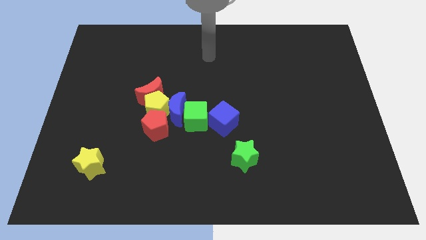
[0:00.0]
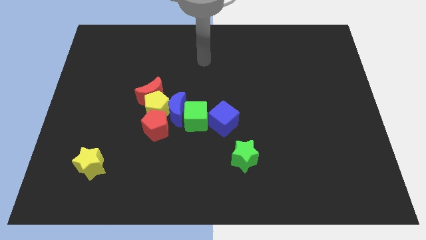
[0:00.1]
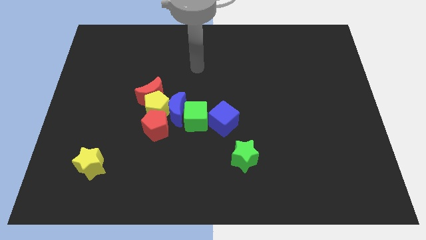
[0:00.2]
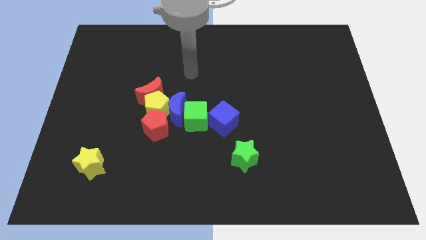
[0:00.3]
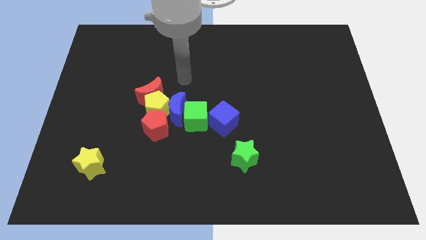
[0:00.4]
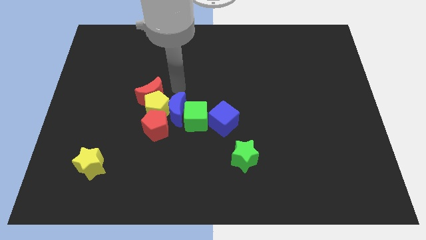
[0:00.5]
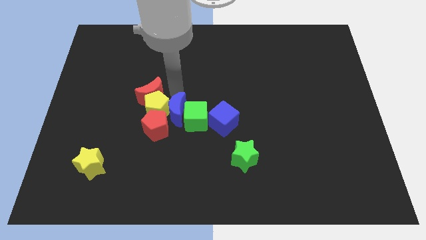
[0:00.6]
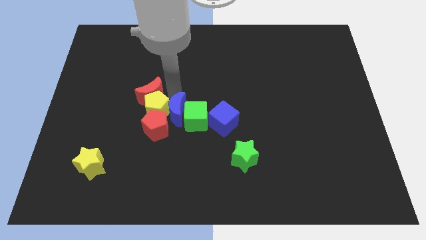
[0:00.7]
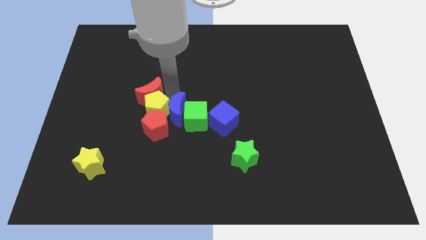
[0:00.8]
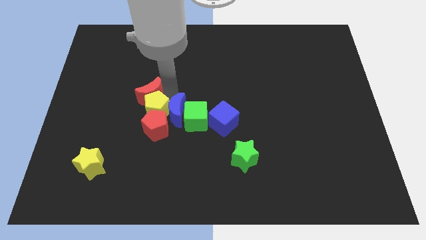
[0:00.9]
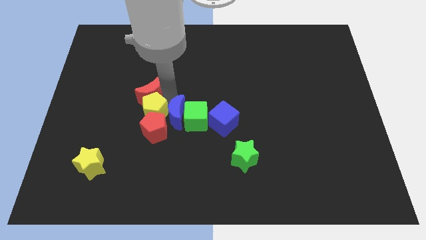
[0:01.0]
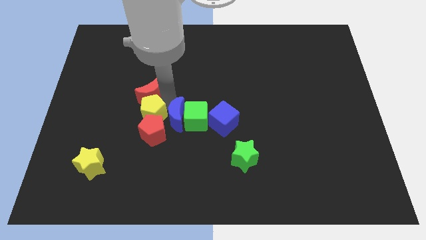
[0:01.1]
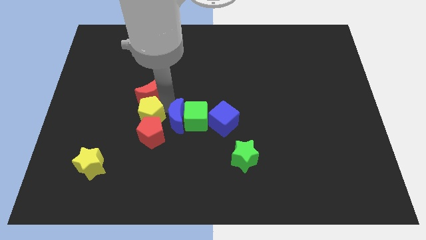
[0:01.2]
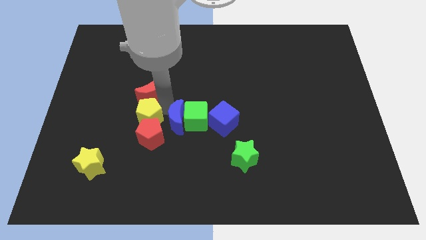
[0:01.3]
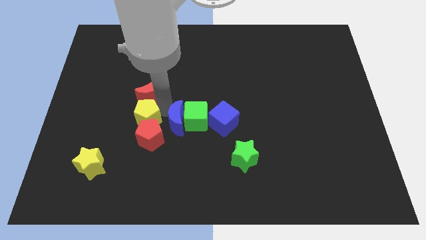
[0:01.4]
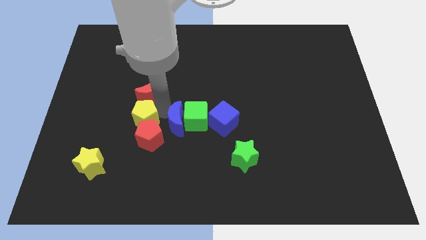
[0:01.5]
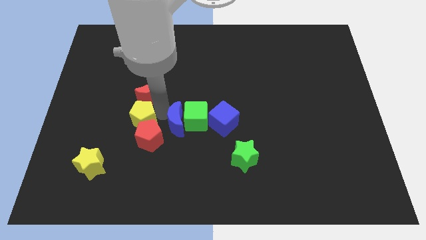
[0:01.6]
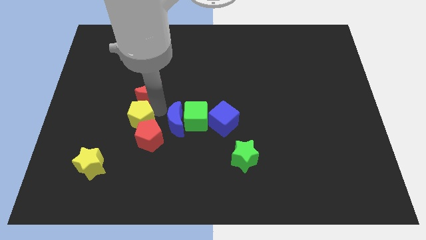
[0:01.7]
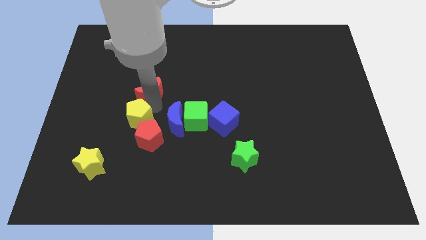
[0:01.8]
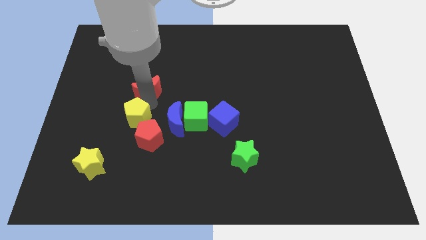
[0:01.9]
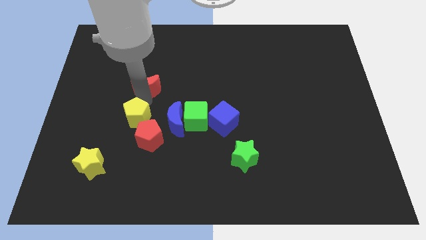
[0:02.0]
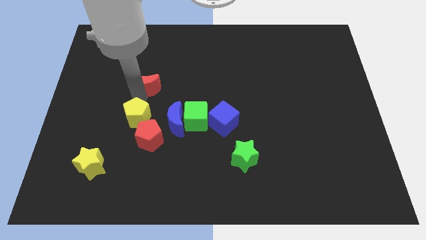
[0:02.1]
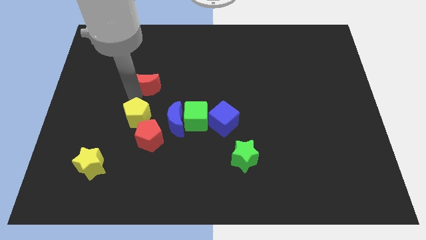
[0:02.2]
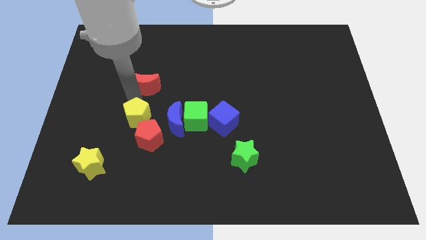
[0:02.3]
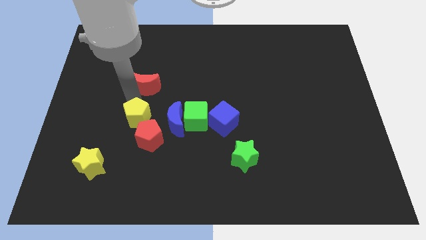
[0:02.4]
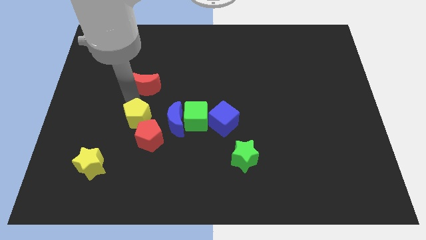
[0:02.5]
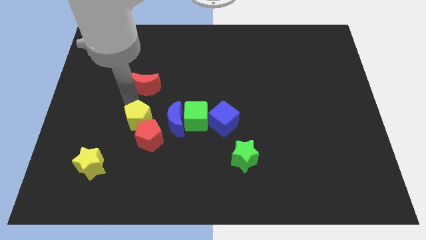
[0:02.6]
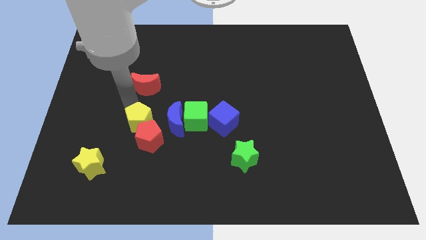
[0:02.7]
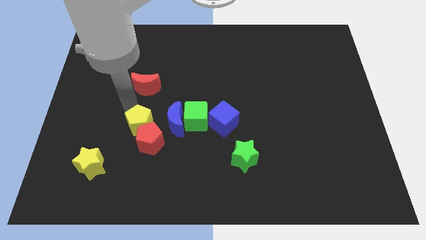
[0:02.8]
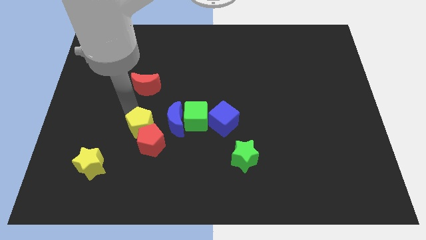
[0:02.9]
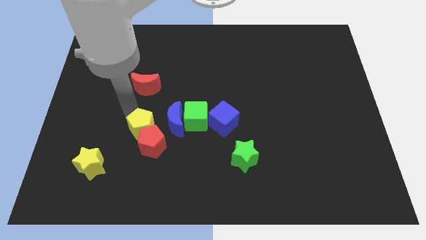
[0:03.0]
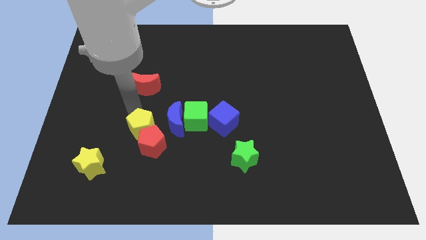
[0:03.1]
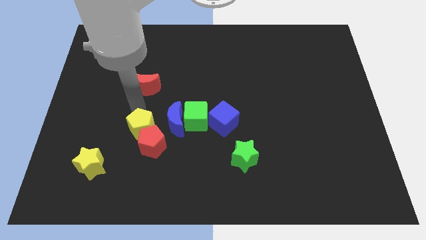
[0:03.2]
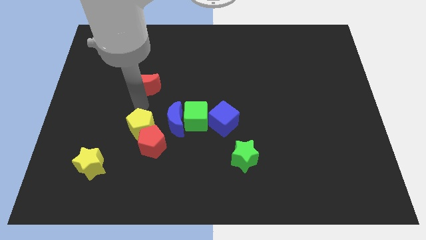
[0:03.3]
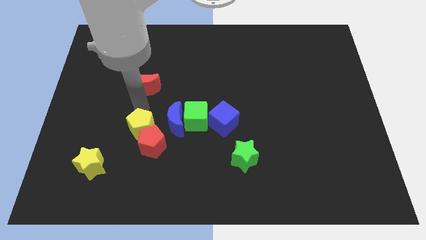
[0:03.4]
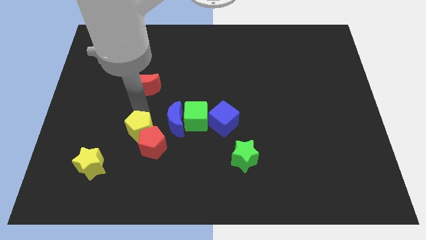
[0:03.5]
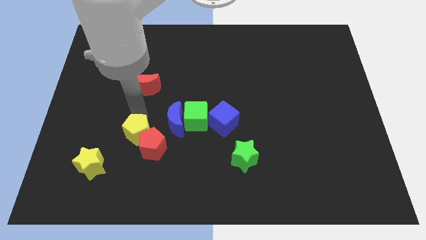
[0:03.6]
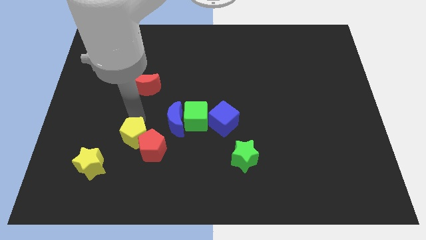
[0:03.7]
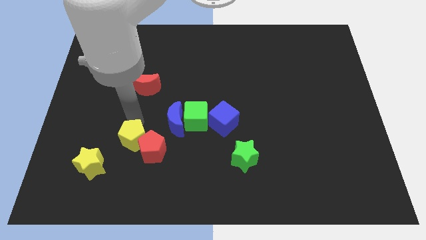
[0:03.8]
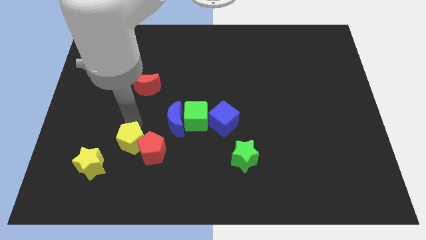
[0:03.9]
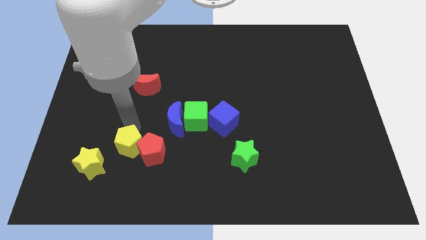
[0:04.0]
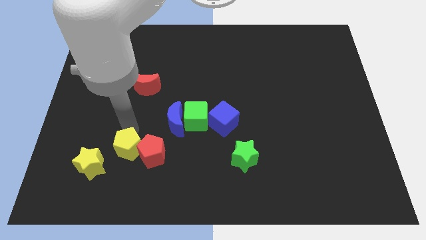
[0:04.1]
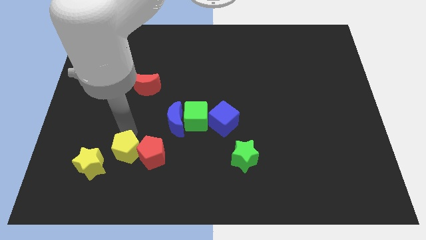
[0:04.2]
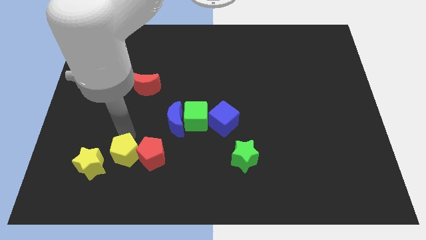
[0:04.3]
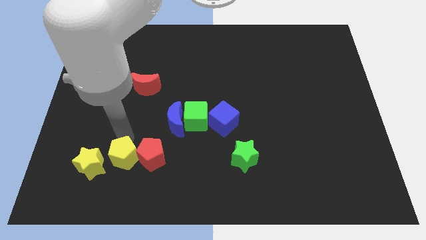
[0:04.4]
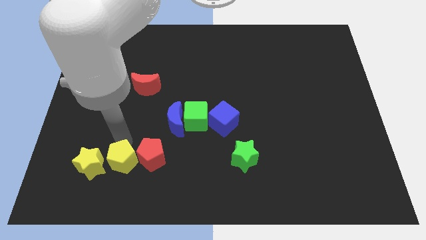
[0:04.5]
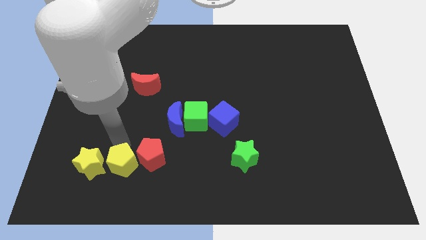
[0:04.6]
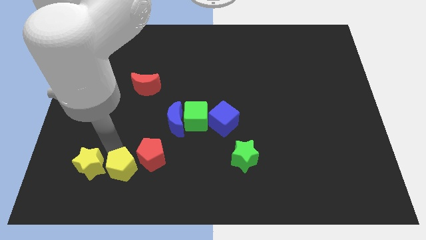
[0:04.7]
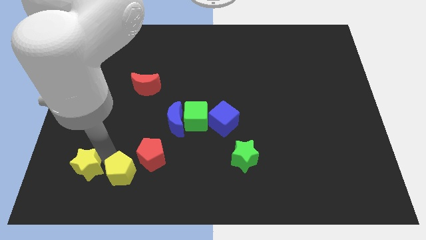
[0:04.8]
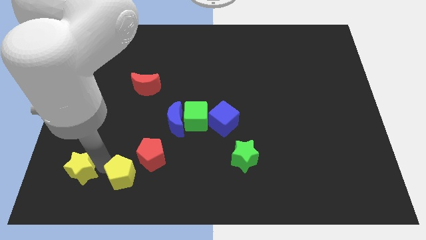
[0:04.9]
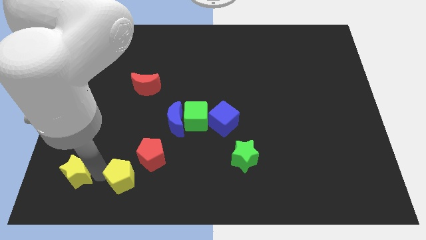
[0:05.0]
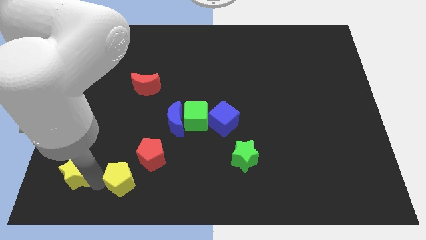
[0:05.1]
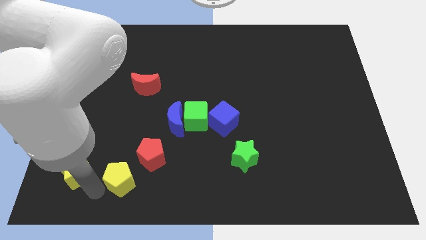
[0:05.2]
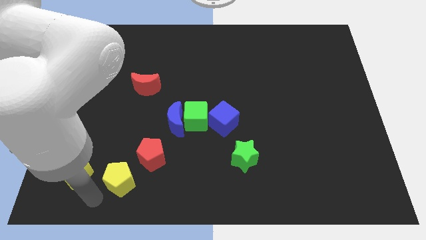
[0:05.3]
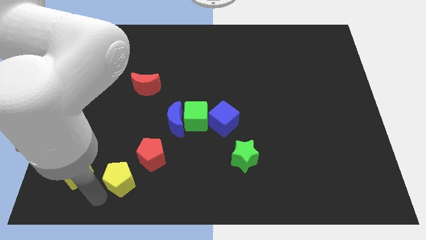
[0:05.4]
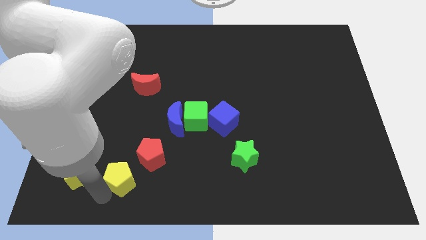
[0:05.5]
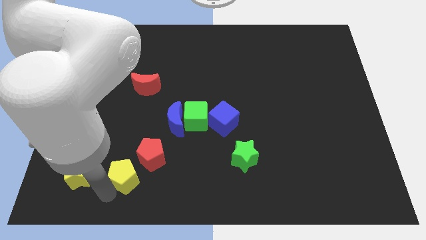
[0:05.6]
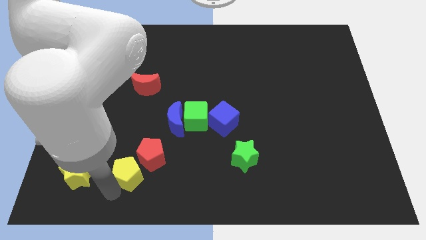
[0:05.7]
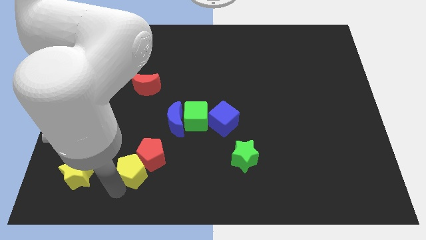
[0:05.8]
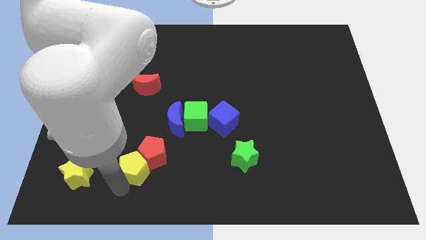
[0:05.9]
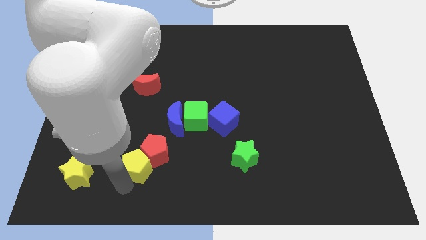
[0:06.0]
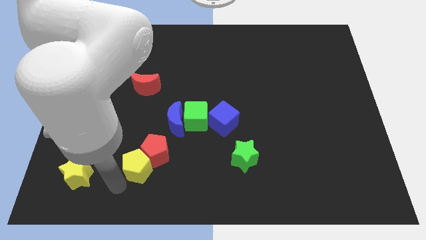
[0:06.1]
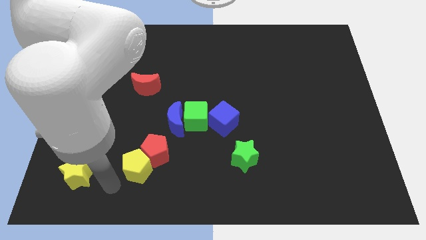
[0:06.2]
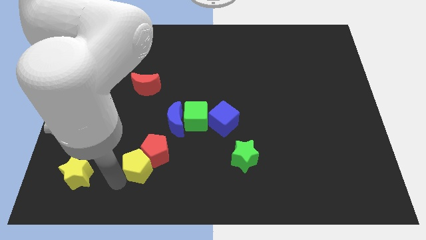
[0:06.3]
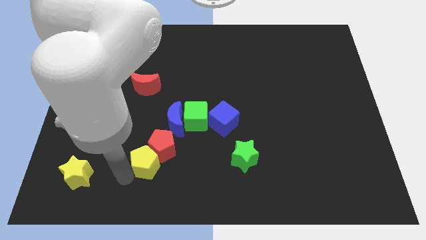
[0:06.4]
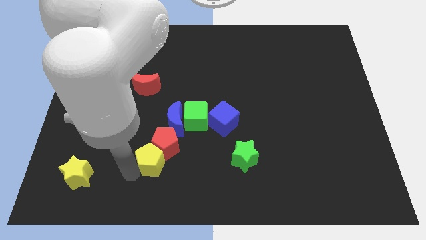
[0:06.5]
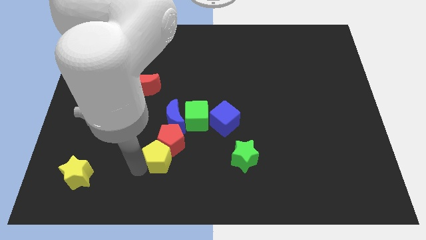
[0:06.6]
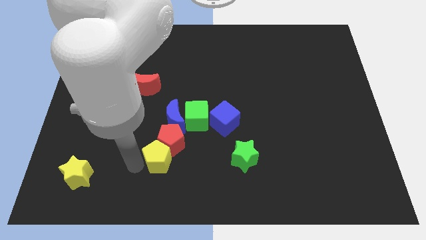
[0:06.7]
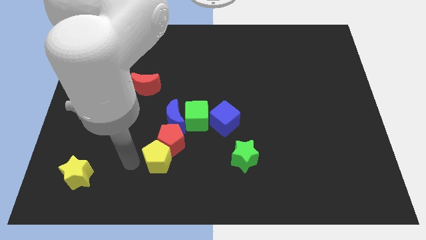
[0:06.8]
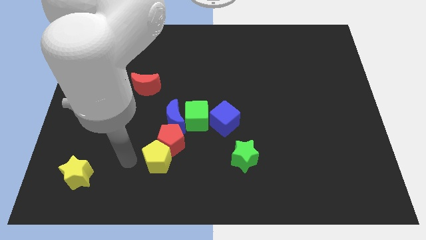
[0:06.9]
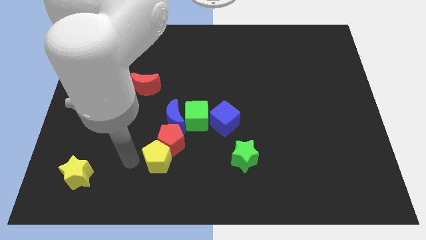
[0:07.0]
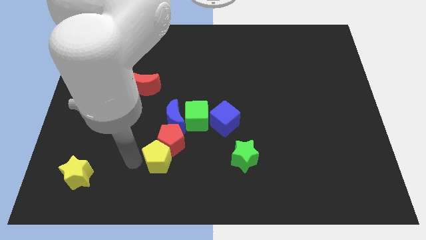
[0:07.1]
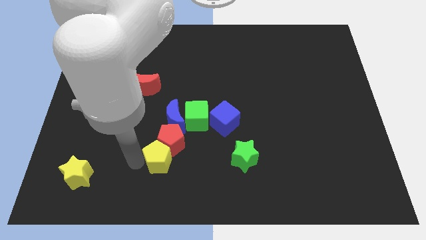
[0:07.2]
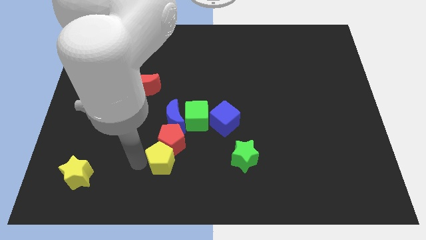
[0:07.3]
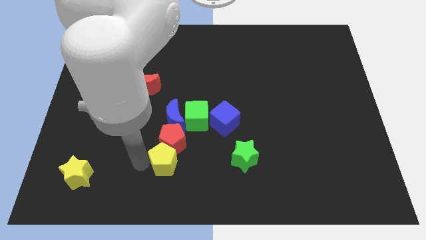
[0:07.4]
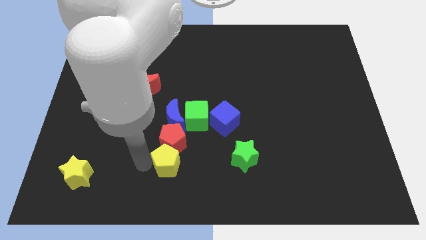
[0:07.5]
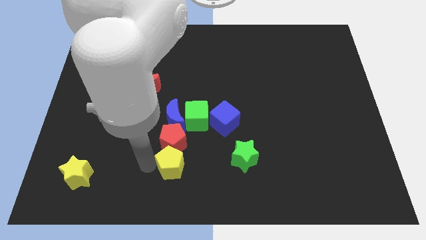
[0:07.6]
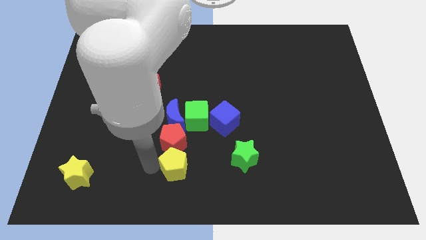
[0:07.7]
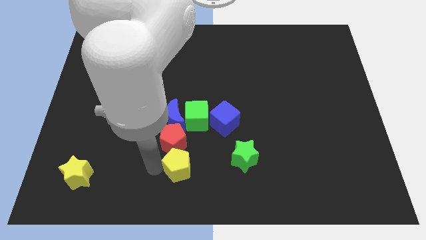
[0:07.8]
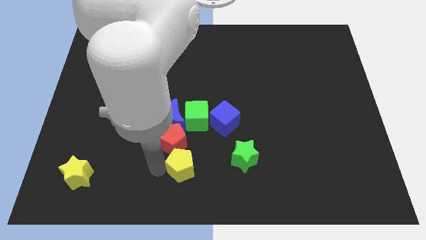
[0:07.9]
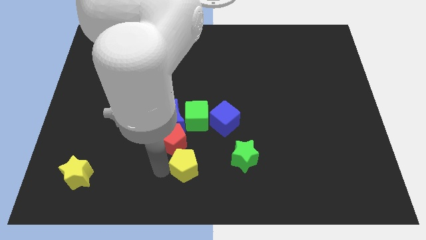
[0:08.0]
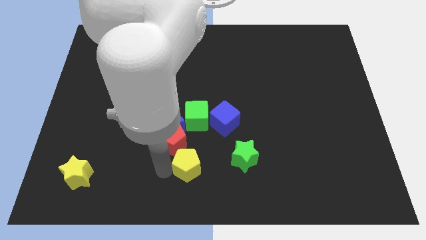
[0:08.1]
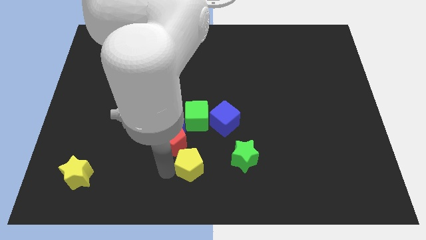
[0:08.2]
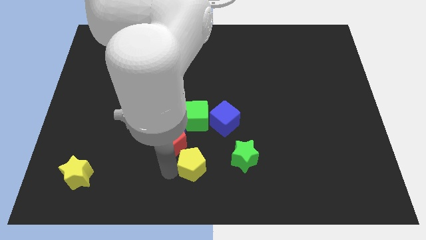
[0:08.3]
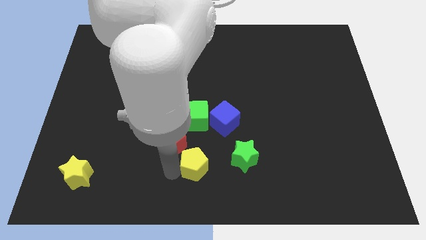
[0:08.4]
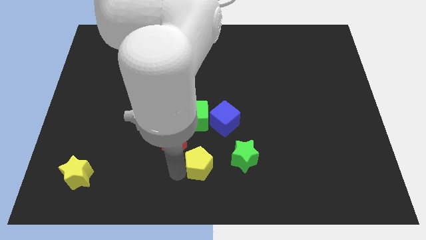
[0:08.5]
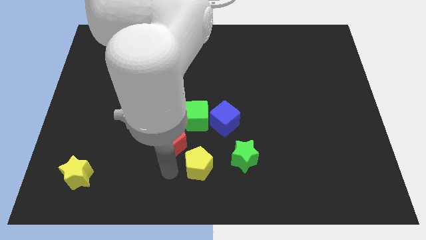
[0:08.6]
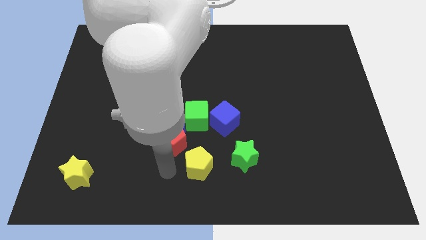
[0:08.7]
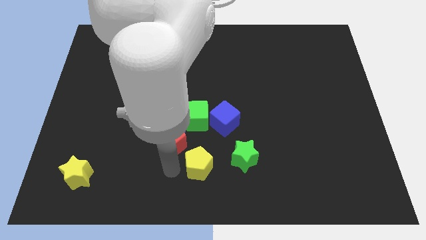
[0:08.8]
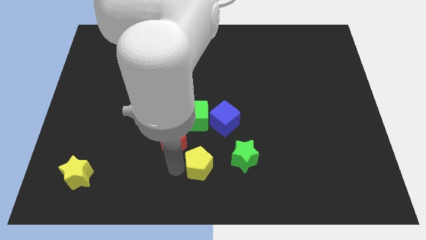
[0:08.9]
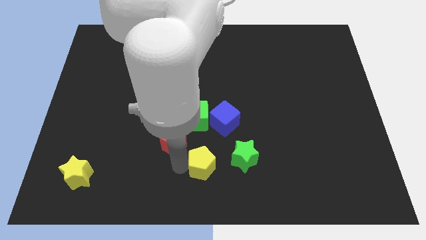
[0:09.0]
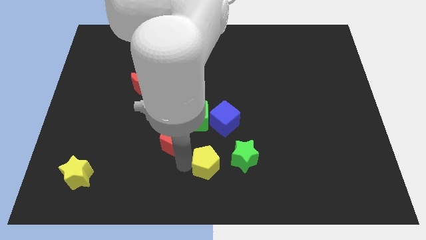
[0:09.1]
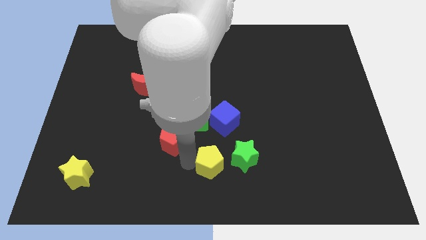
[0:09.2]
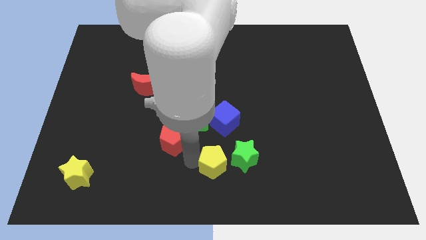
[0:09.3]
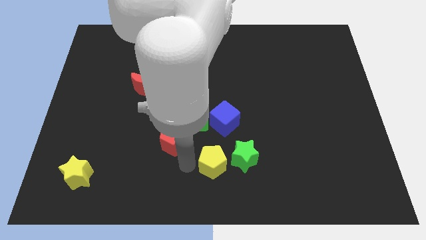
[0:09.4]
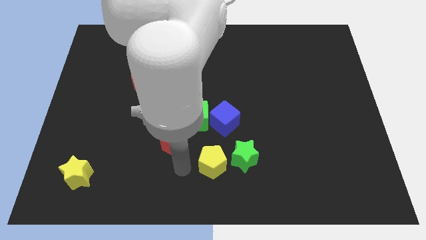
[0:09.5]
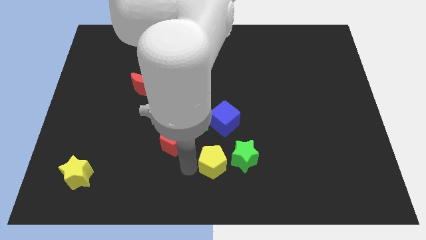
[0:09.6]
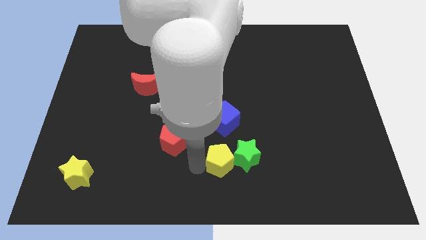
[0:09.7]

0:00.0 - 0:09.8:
put the yellow pentagon towards the green star
